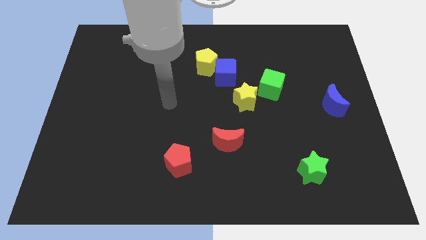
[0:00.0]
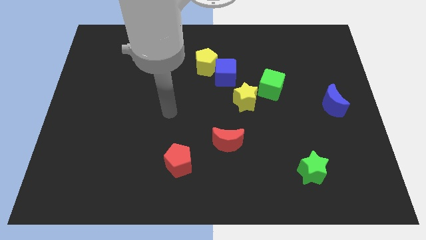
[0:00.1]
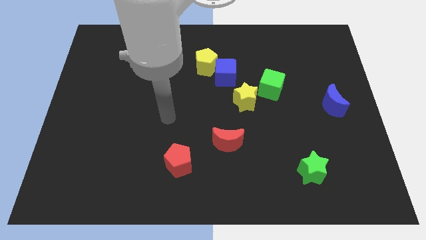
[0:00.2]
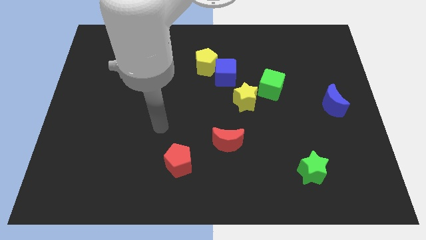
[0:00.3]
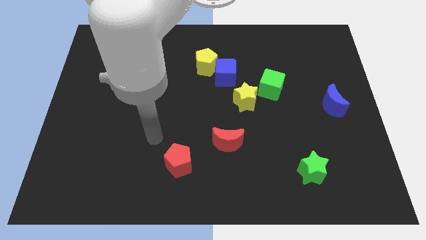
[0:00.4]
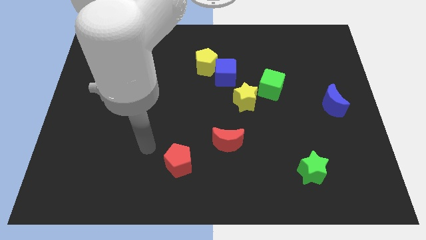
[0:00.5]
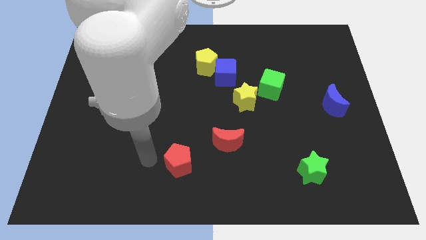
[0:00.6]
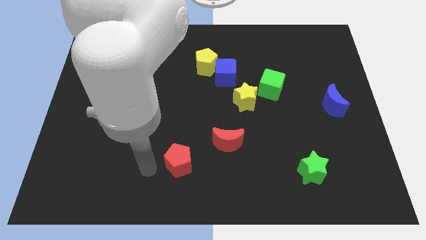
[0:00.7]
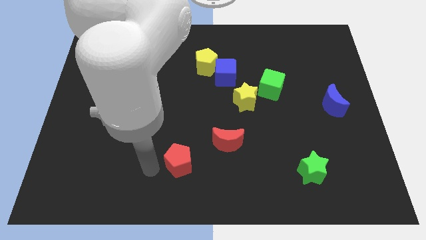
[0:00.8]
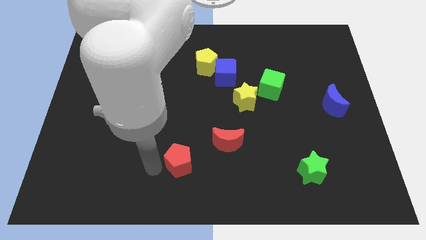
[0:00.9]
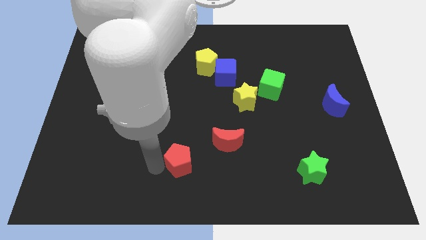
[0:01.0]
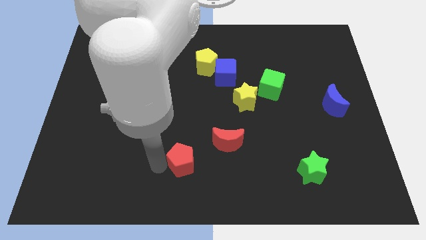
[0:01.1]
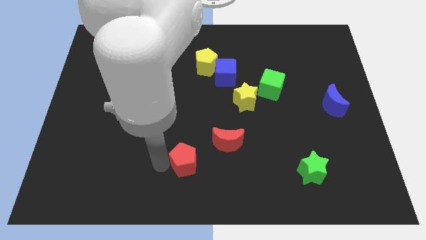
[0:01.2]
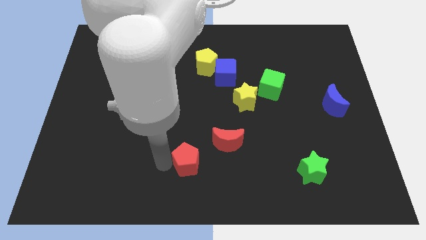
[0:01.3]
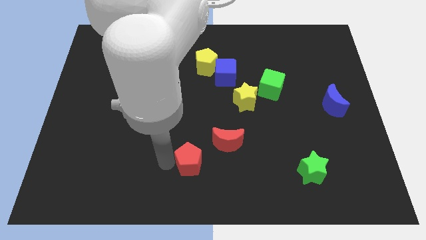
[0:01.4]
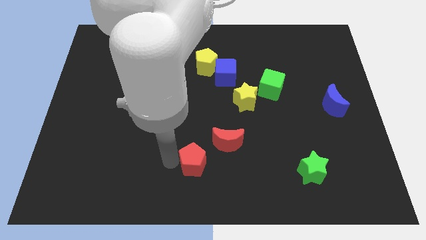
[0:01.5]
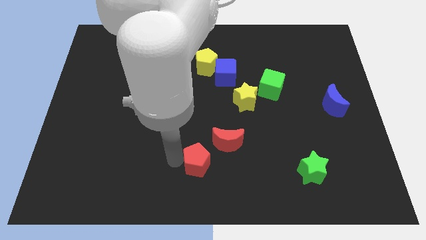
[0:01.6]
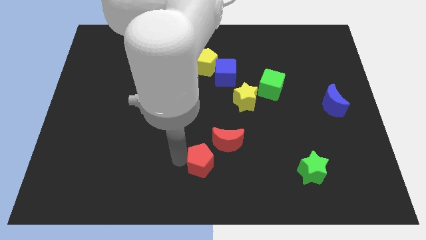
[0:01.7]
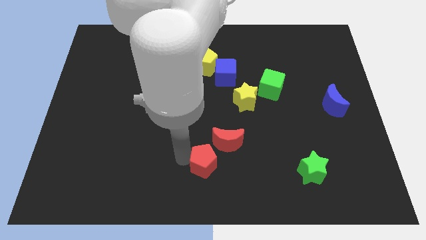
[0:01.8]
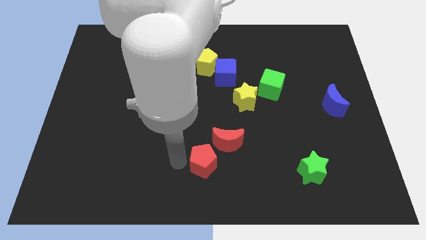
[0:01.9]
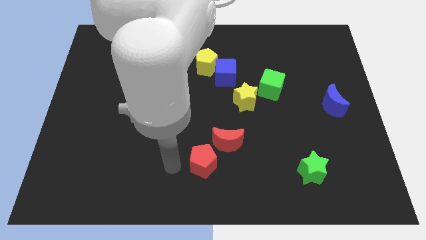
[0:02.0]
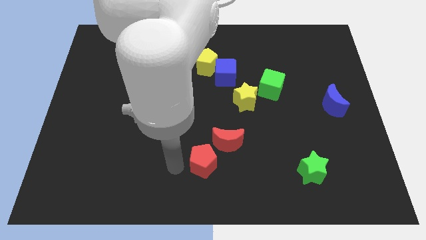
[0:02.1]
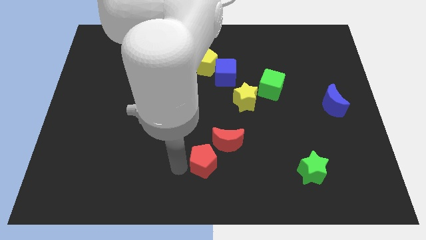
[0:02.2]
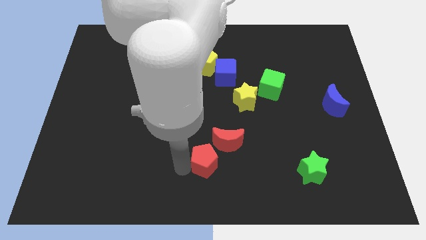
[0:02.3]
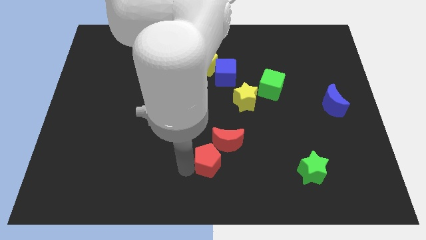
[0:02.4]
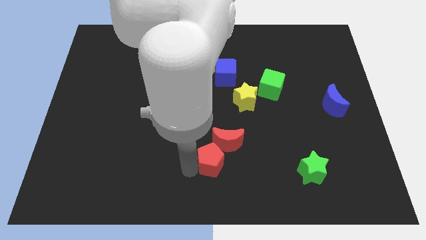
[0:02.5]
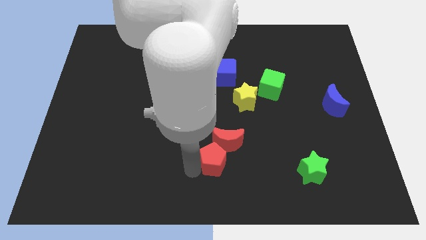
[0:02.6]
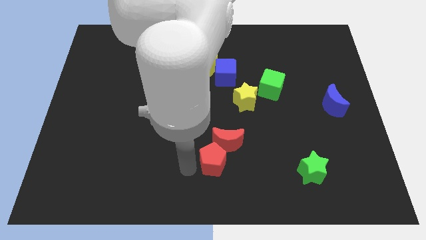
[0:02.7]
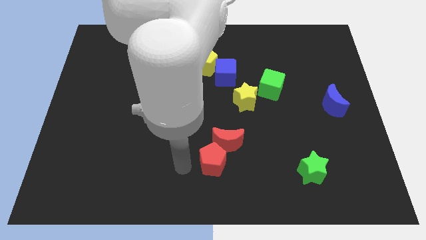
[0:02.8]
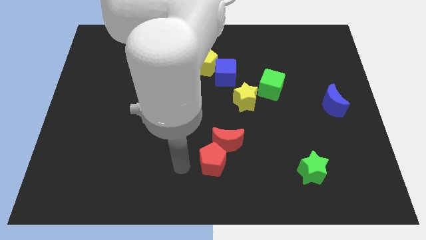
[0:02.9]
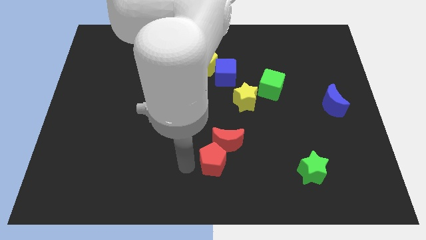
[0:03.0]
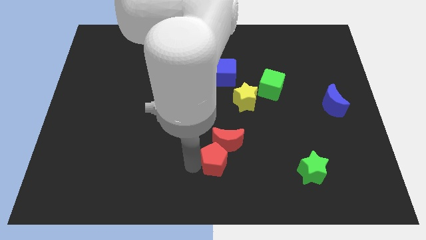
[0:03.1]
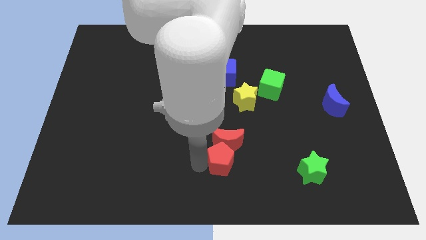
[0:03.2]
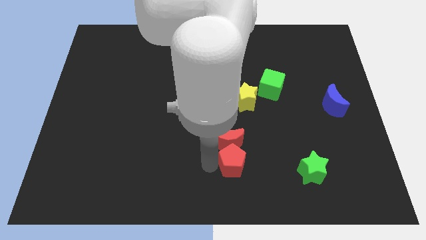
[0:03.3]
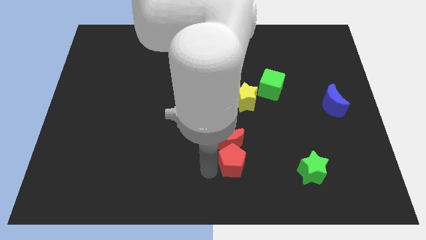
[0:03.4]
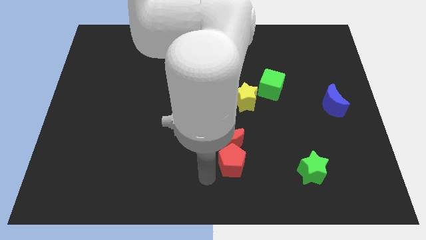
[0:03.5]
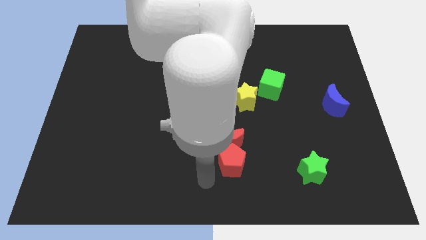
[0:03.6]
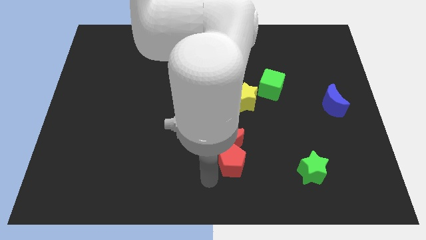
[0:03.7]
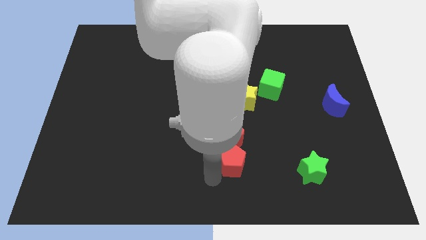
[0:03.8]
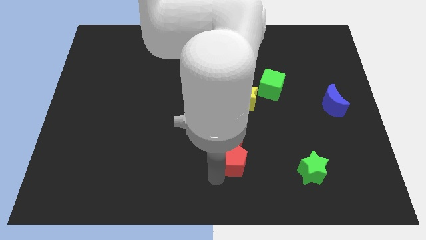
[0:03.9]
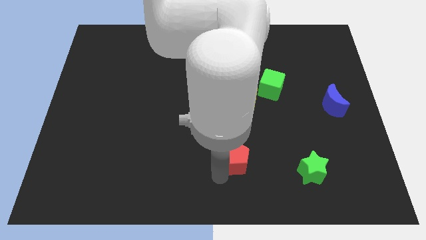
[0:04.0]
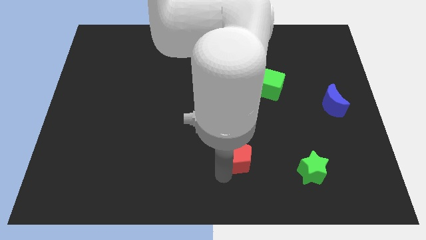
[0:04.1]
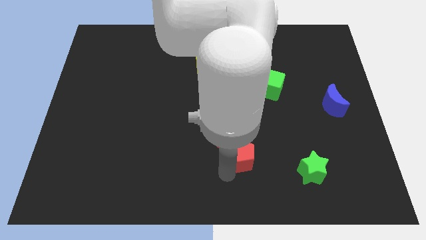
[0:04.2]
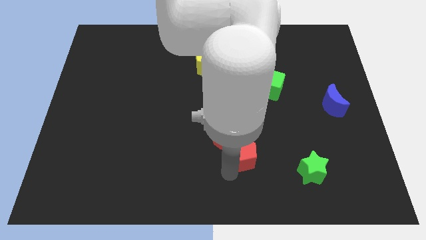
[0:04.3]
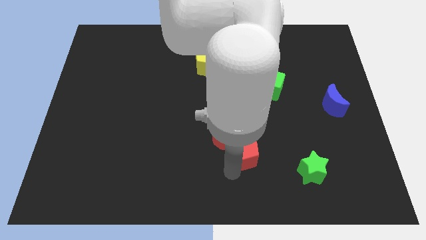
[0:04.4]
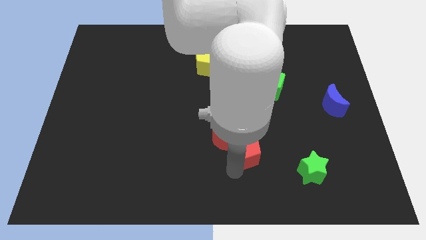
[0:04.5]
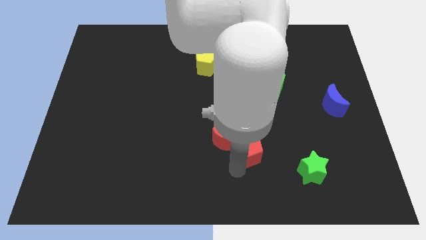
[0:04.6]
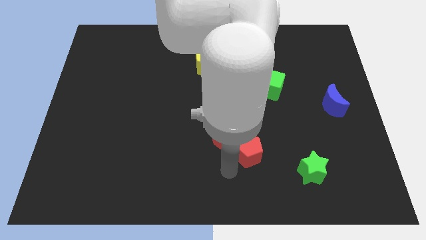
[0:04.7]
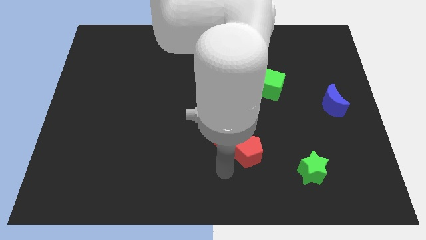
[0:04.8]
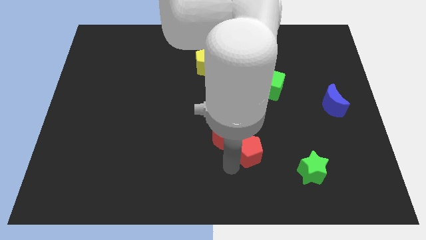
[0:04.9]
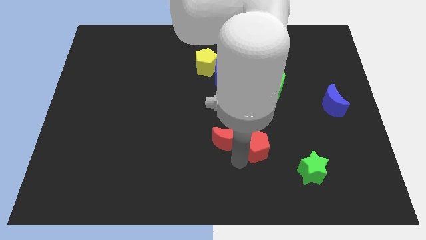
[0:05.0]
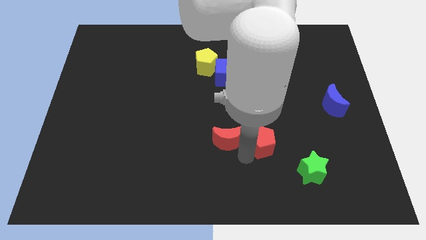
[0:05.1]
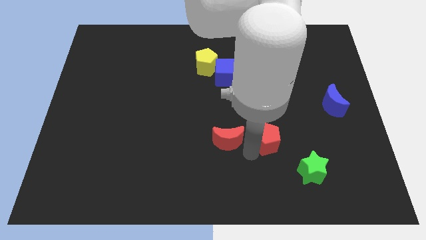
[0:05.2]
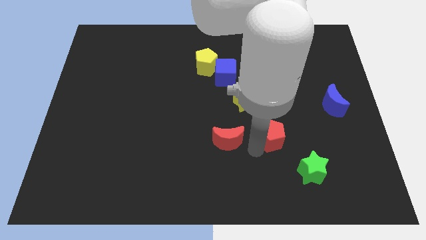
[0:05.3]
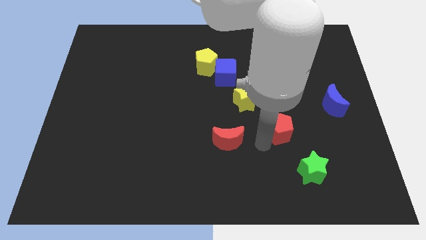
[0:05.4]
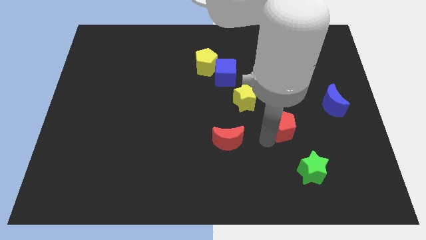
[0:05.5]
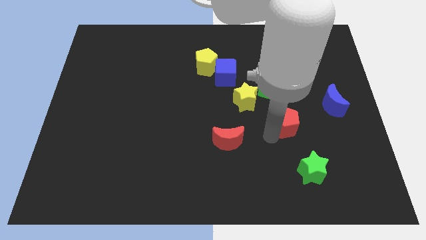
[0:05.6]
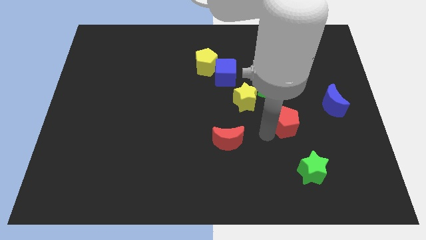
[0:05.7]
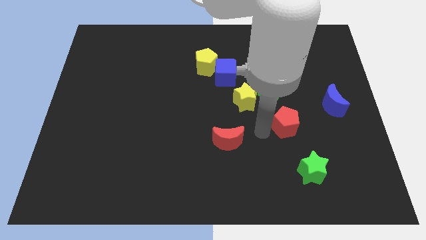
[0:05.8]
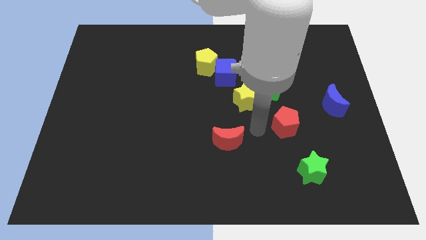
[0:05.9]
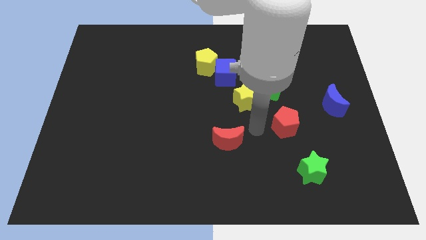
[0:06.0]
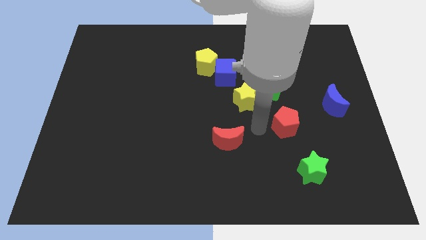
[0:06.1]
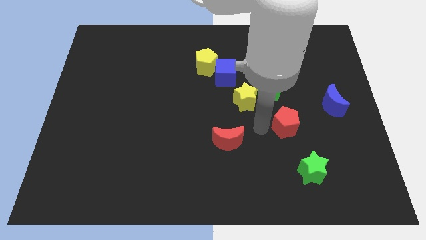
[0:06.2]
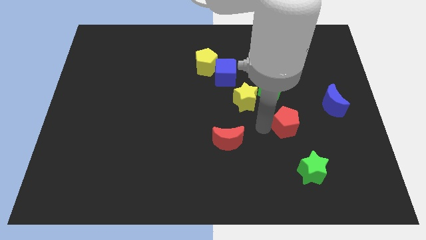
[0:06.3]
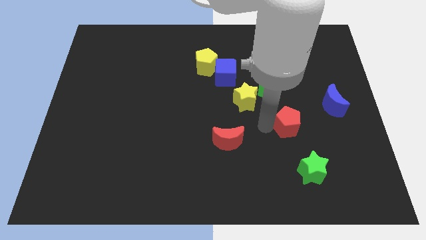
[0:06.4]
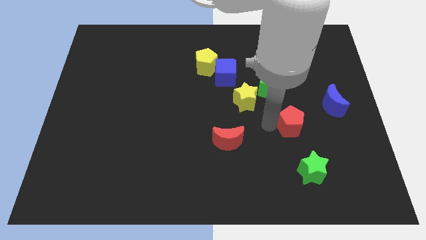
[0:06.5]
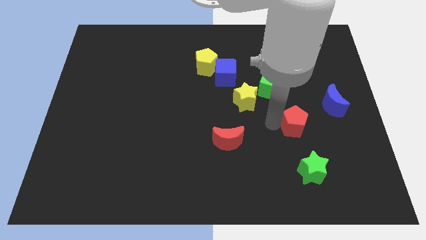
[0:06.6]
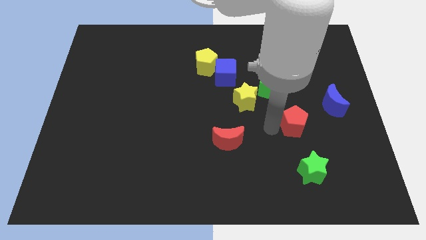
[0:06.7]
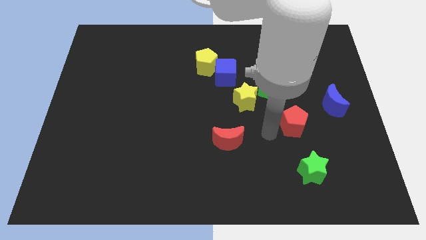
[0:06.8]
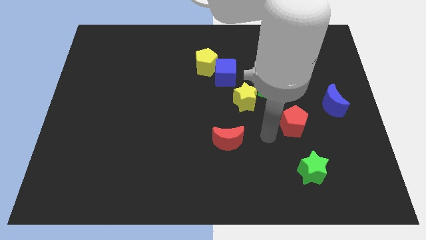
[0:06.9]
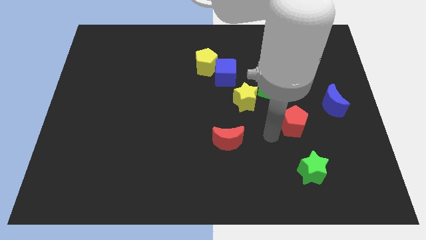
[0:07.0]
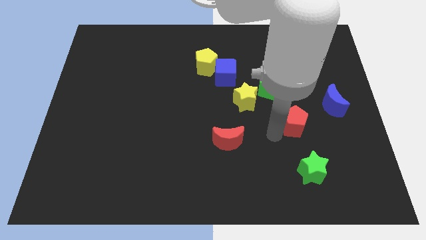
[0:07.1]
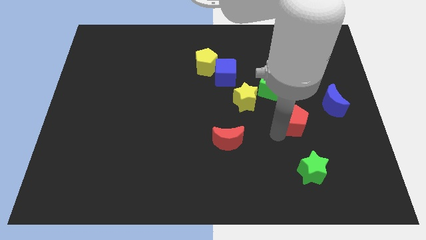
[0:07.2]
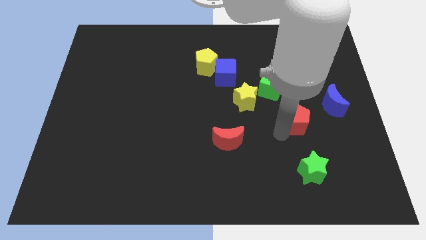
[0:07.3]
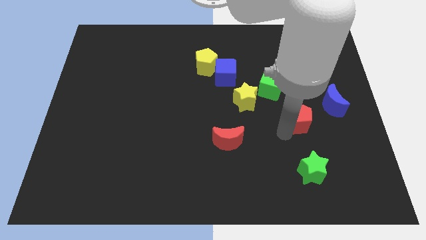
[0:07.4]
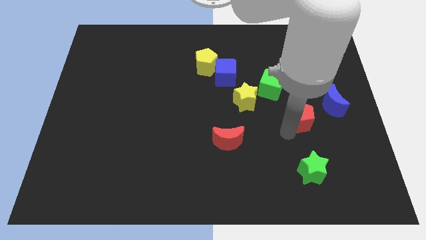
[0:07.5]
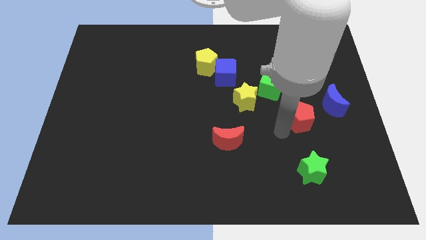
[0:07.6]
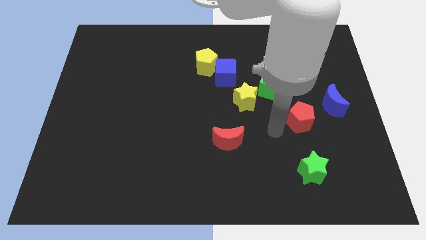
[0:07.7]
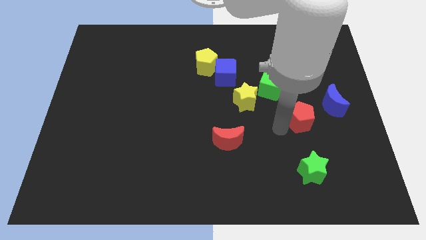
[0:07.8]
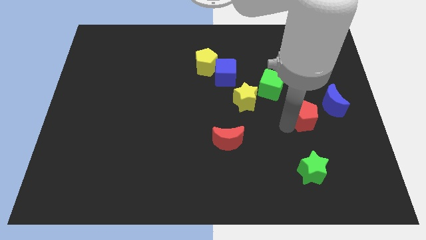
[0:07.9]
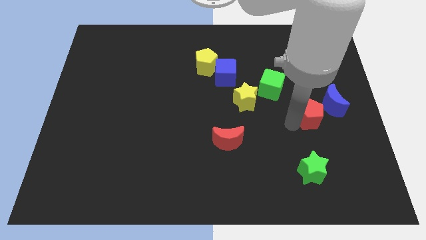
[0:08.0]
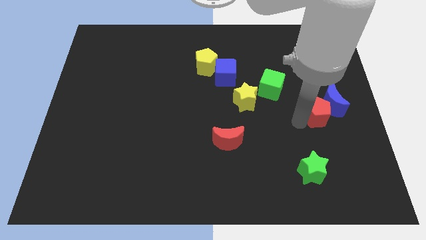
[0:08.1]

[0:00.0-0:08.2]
slide the red pentagon towards the blue moon
